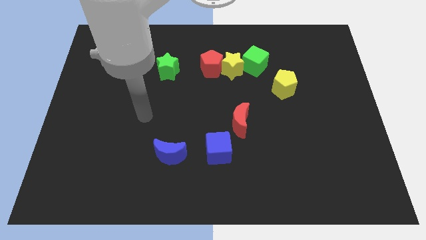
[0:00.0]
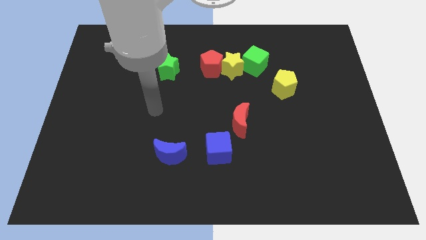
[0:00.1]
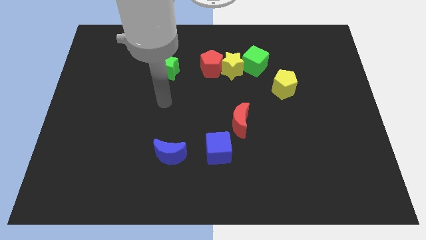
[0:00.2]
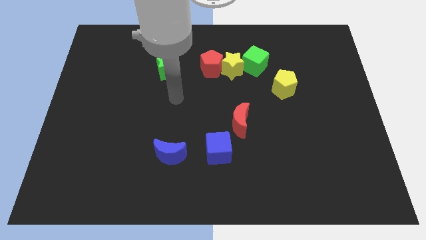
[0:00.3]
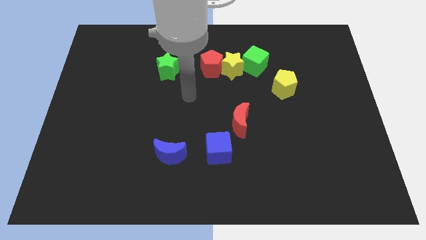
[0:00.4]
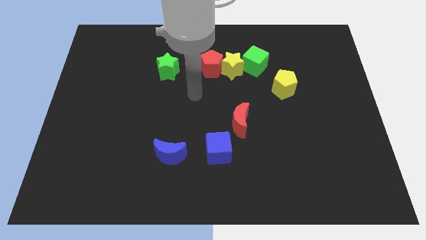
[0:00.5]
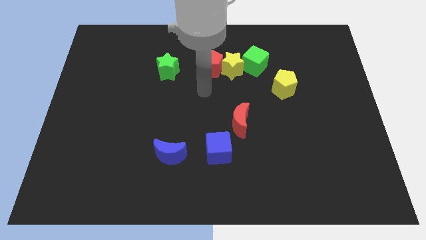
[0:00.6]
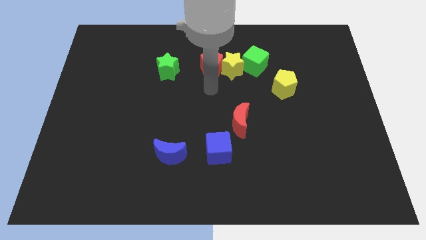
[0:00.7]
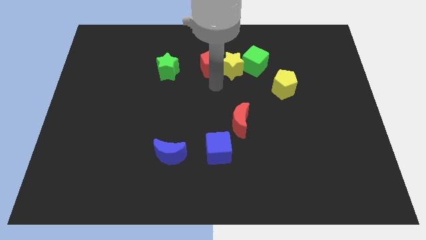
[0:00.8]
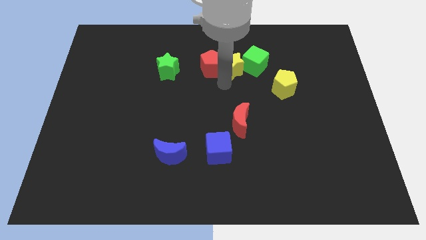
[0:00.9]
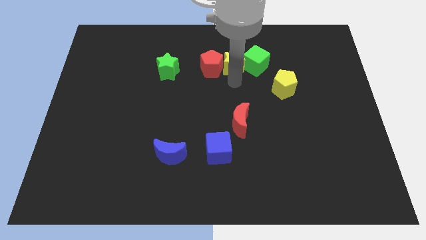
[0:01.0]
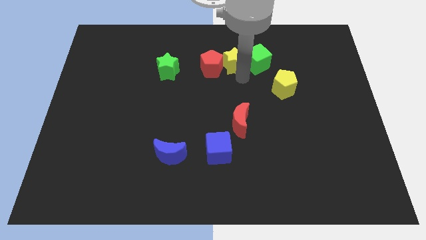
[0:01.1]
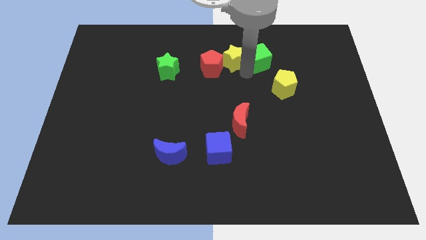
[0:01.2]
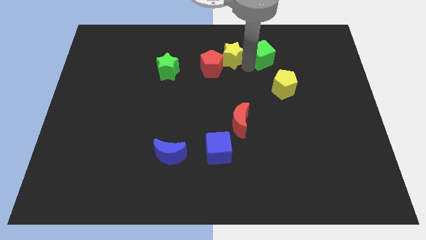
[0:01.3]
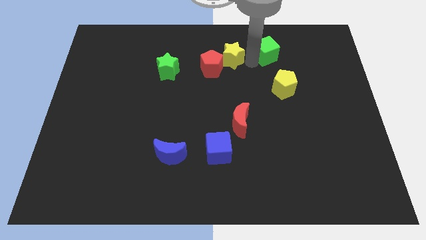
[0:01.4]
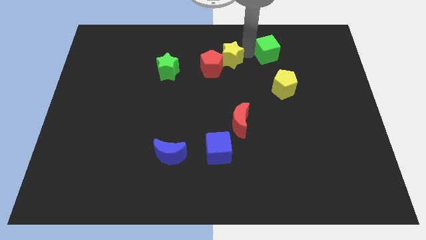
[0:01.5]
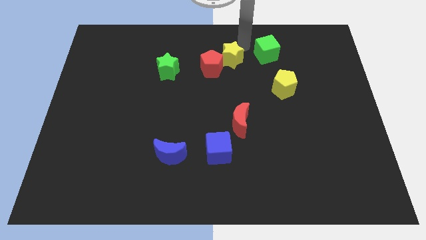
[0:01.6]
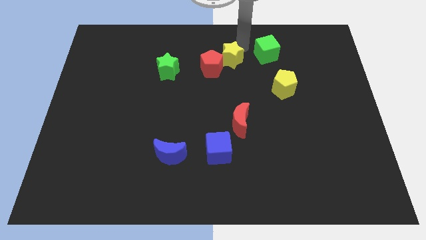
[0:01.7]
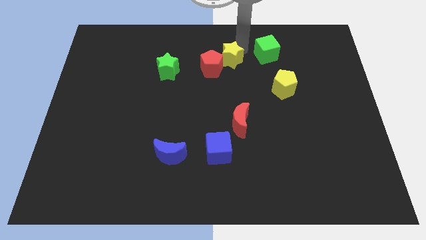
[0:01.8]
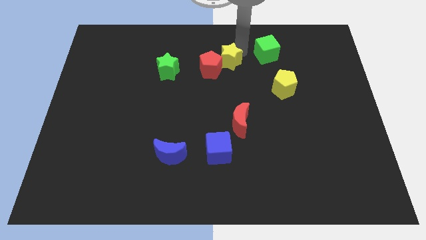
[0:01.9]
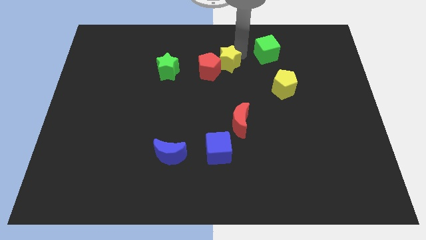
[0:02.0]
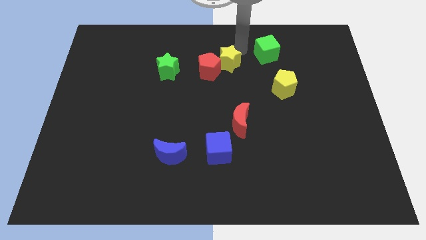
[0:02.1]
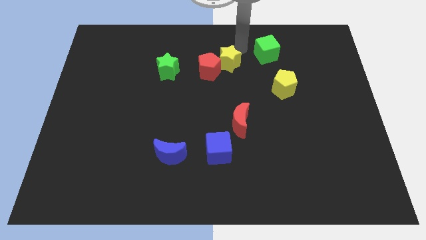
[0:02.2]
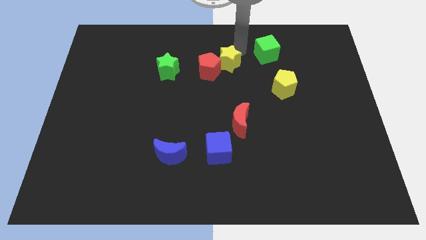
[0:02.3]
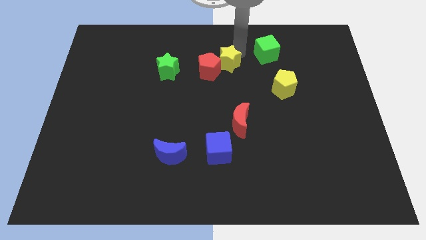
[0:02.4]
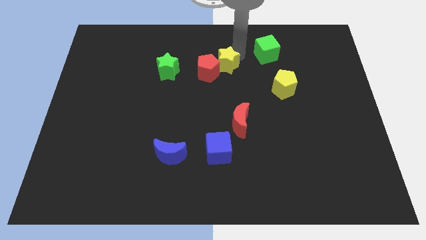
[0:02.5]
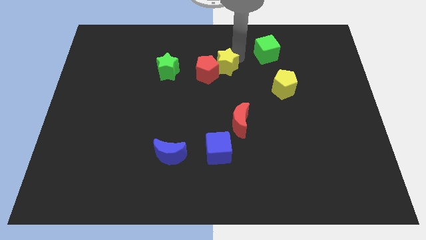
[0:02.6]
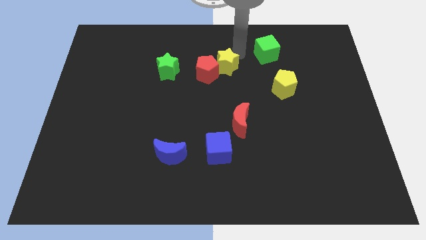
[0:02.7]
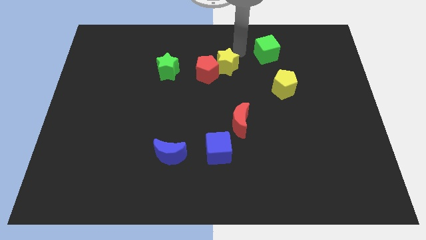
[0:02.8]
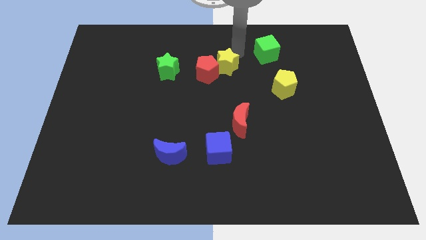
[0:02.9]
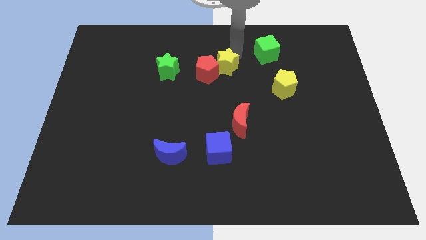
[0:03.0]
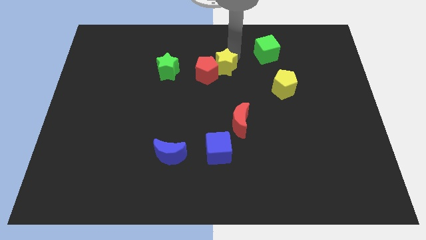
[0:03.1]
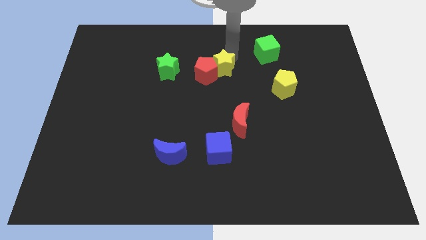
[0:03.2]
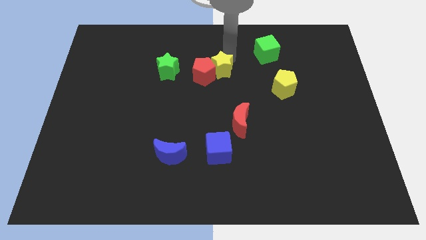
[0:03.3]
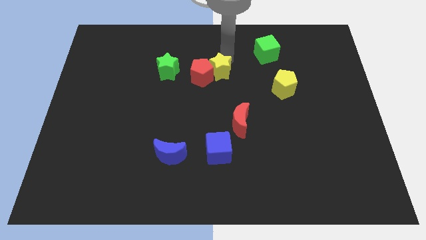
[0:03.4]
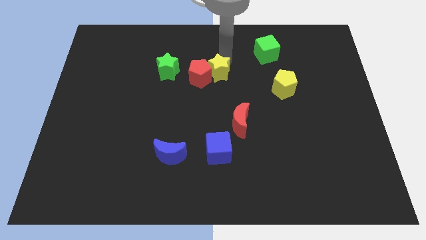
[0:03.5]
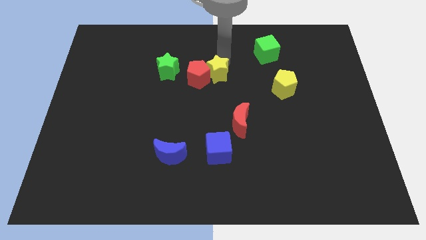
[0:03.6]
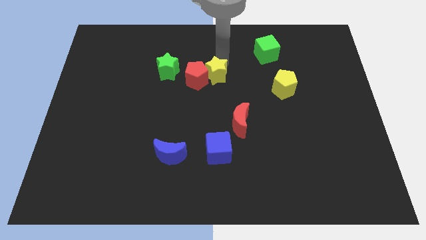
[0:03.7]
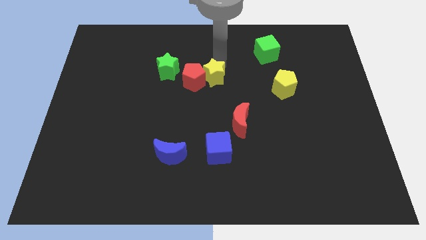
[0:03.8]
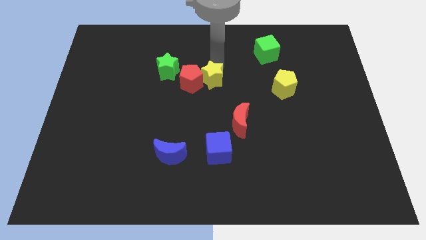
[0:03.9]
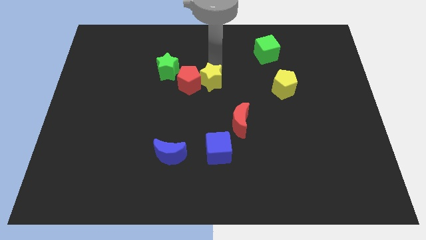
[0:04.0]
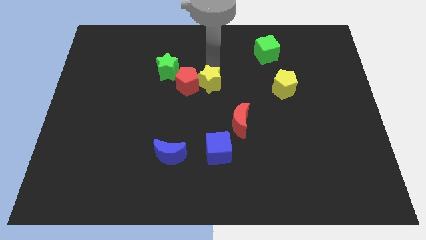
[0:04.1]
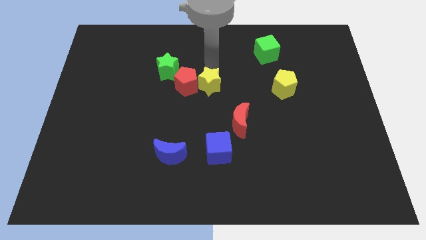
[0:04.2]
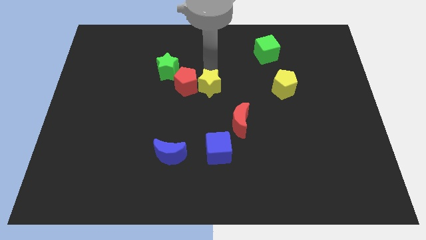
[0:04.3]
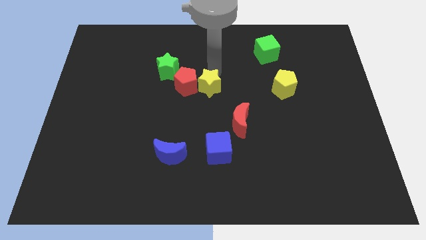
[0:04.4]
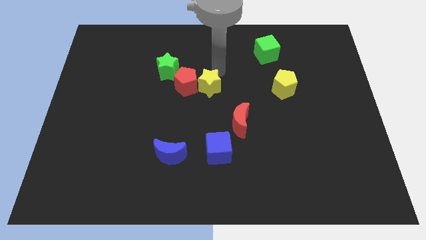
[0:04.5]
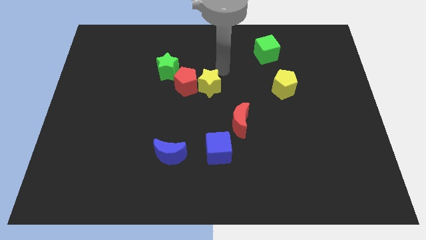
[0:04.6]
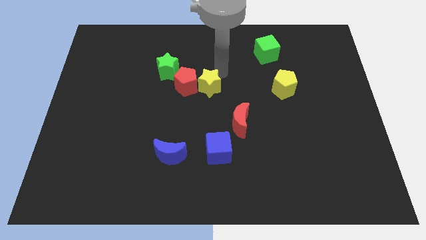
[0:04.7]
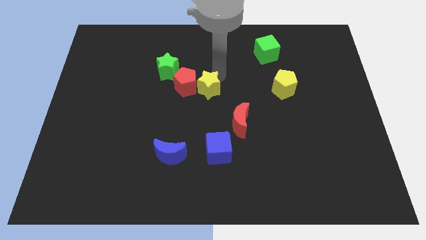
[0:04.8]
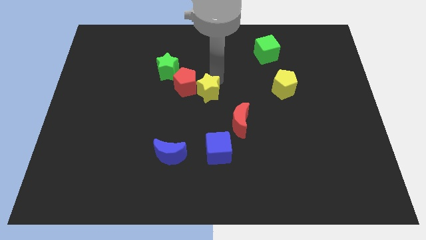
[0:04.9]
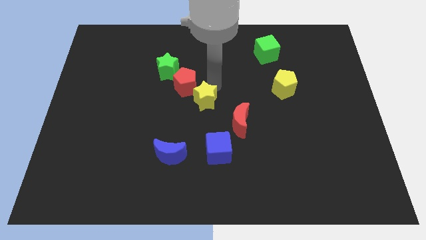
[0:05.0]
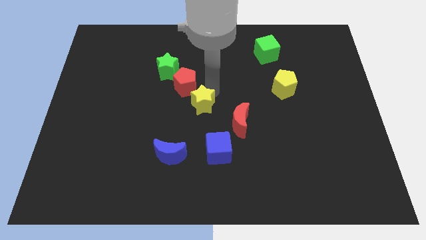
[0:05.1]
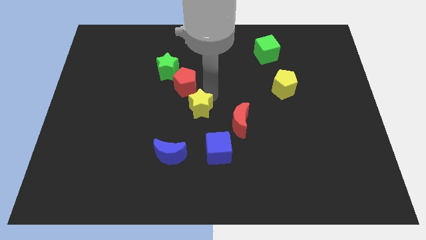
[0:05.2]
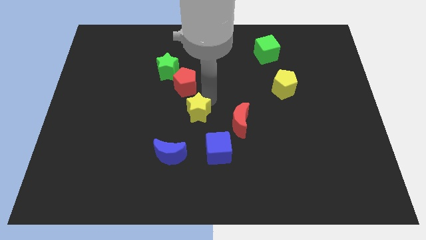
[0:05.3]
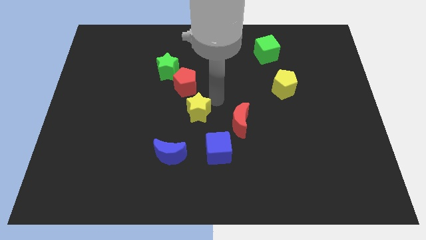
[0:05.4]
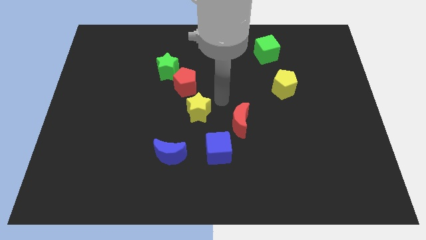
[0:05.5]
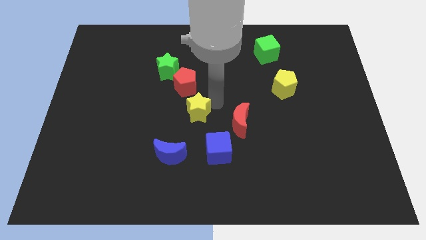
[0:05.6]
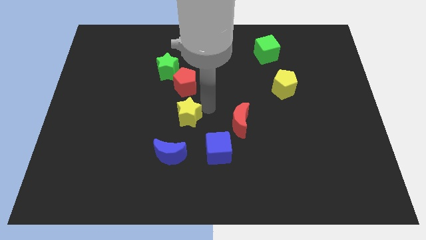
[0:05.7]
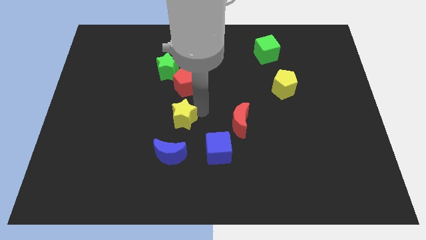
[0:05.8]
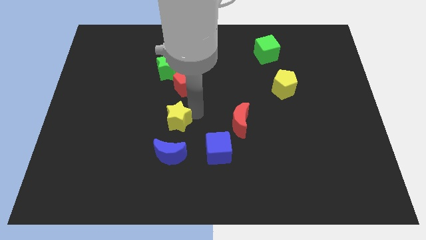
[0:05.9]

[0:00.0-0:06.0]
push the yellow star downwards and then left

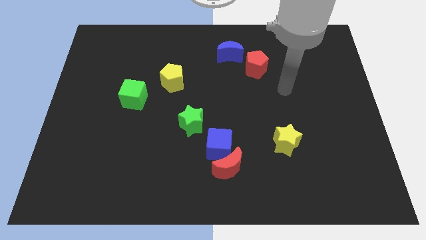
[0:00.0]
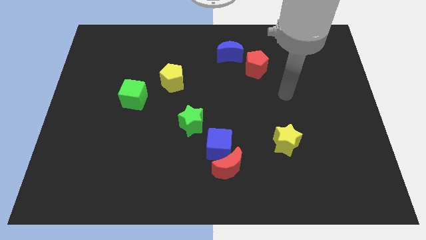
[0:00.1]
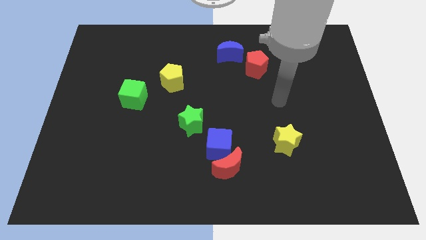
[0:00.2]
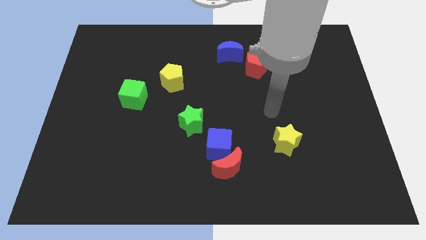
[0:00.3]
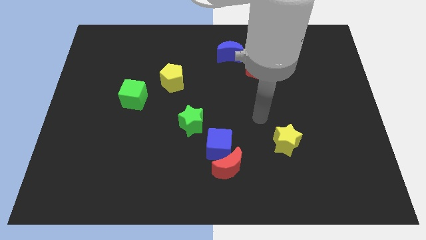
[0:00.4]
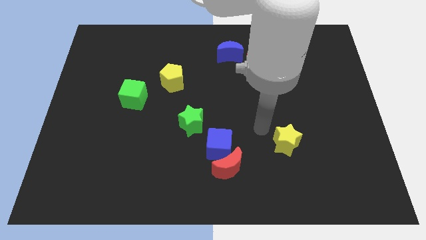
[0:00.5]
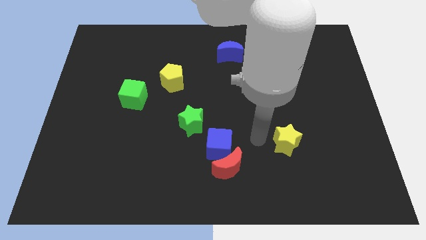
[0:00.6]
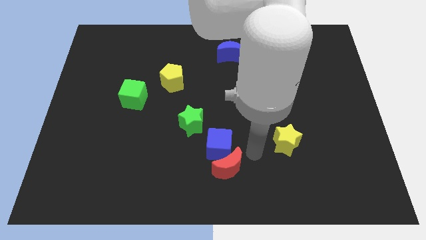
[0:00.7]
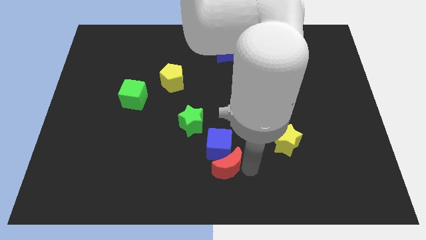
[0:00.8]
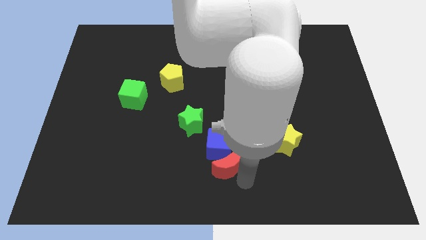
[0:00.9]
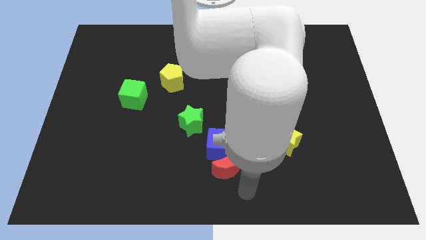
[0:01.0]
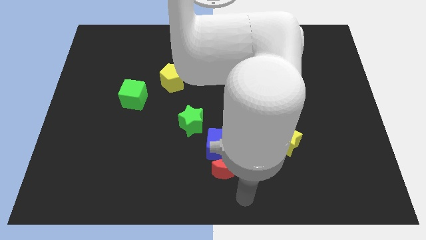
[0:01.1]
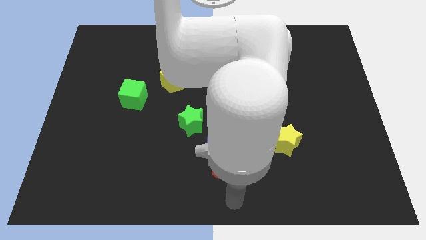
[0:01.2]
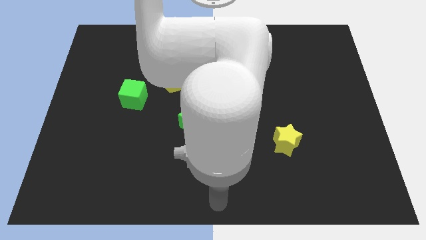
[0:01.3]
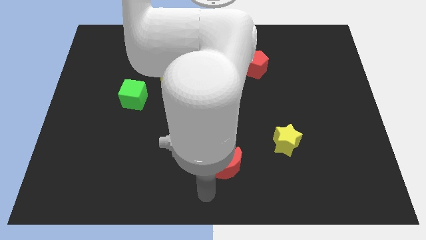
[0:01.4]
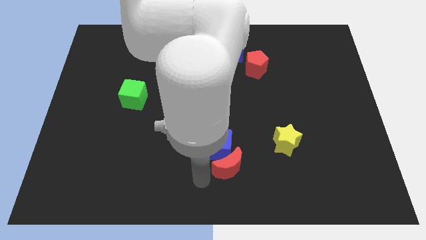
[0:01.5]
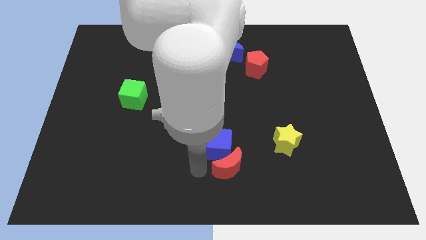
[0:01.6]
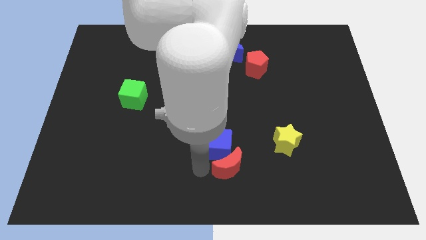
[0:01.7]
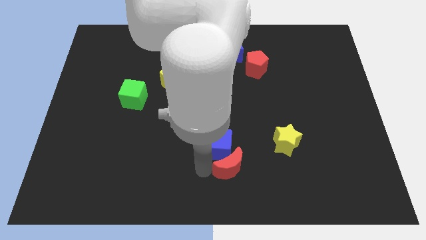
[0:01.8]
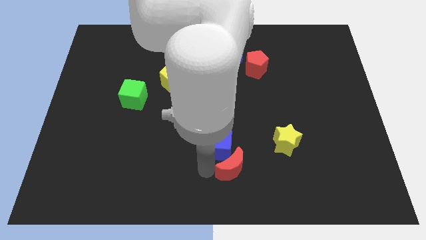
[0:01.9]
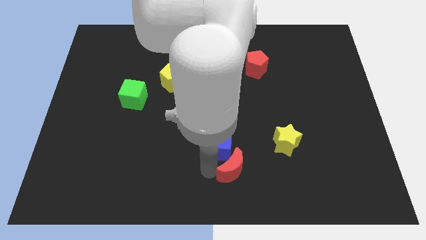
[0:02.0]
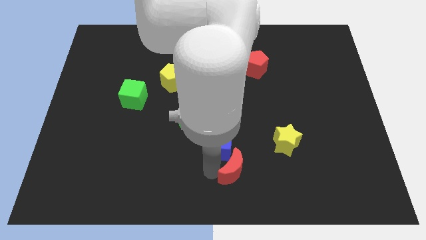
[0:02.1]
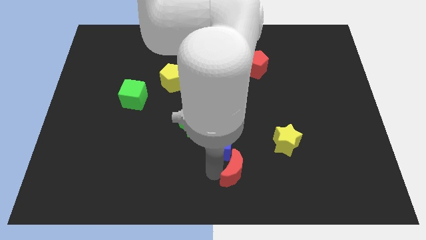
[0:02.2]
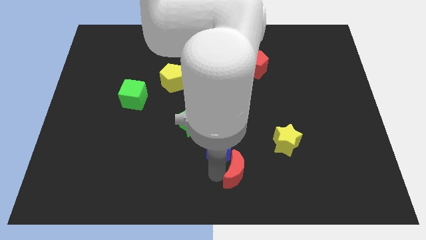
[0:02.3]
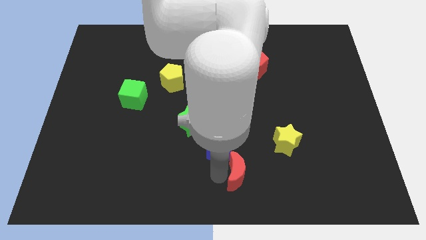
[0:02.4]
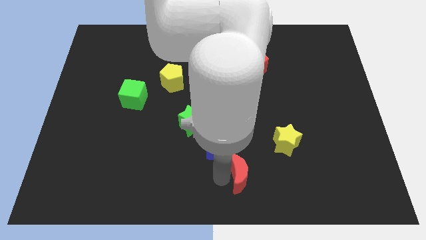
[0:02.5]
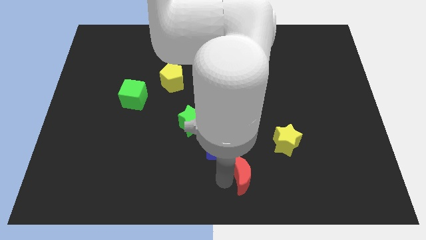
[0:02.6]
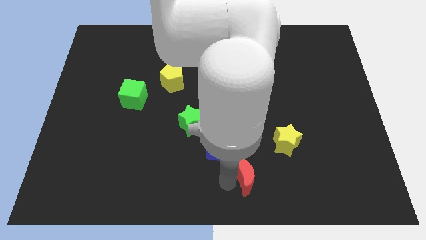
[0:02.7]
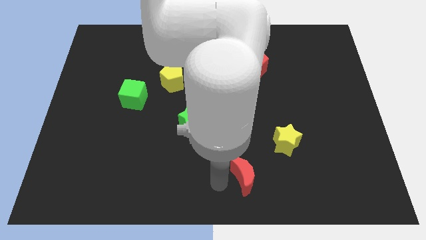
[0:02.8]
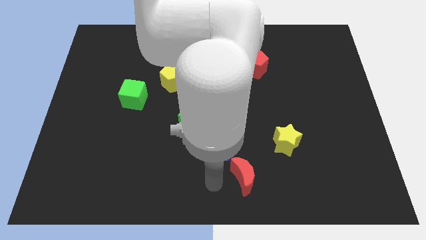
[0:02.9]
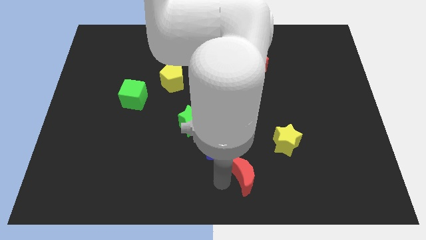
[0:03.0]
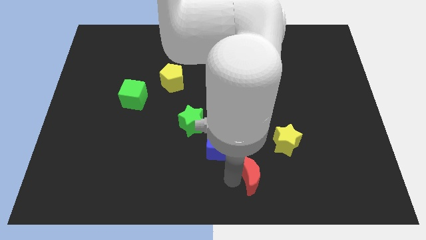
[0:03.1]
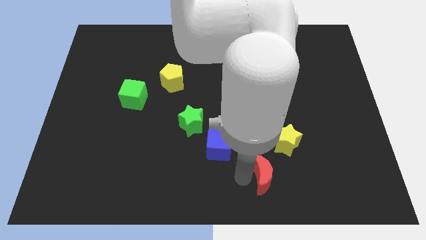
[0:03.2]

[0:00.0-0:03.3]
slightly move the red moon to the right
